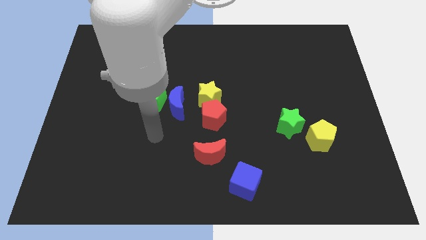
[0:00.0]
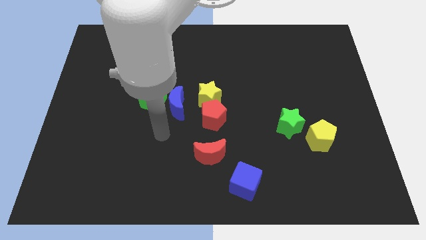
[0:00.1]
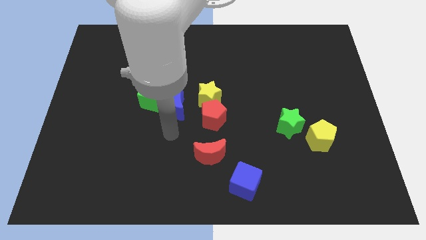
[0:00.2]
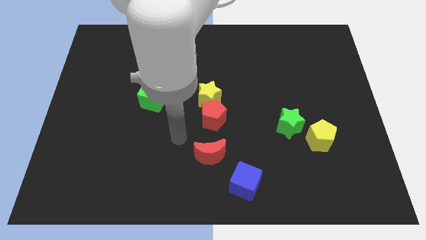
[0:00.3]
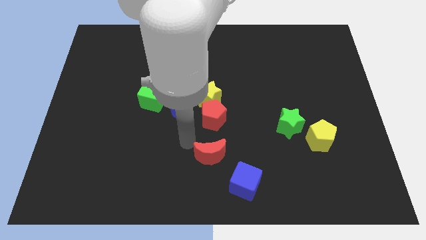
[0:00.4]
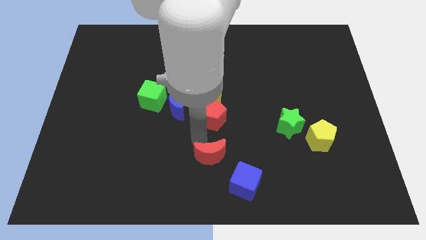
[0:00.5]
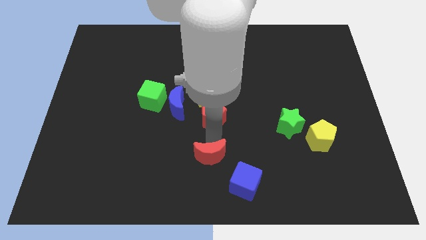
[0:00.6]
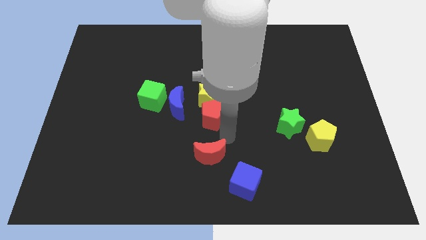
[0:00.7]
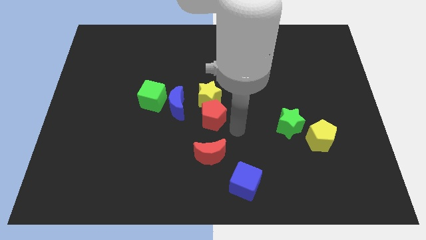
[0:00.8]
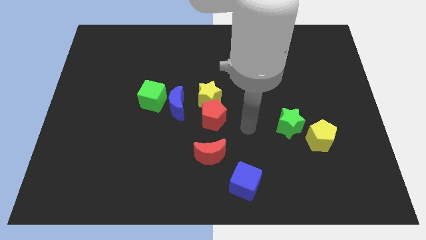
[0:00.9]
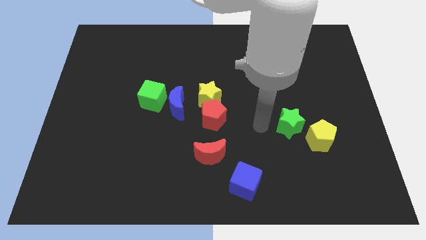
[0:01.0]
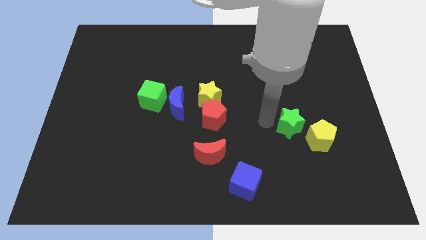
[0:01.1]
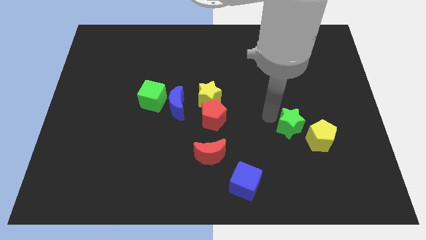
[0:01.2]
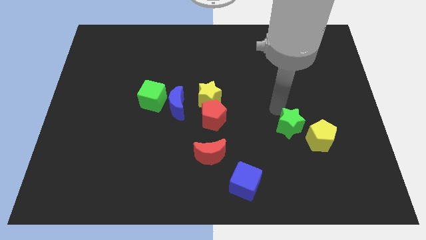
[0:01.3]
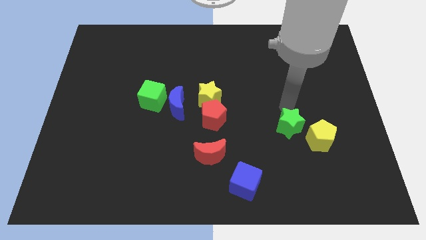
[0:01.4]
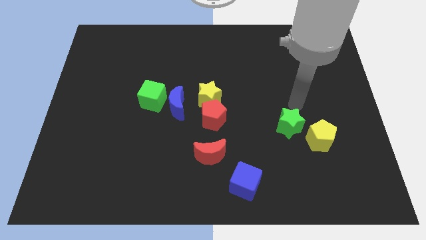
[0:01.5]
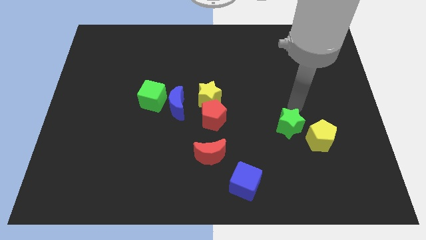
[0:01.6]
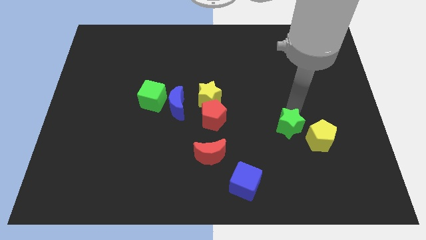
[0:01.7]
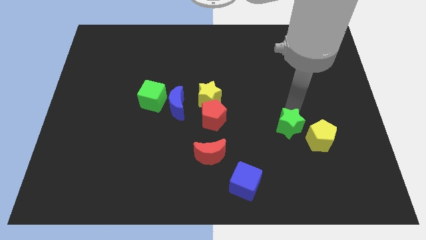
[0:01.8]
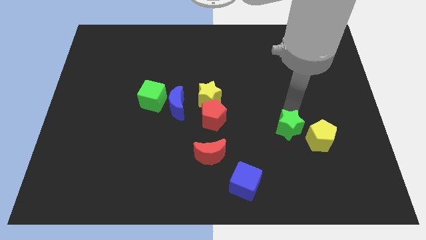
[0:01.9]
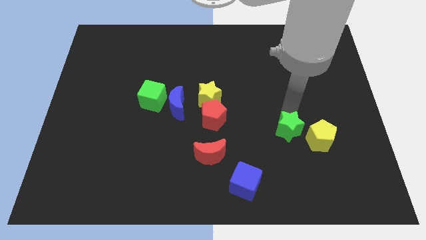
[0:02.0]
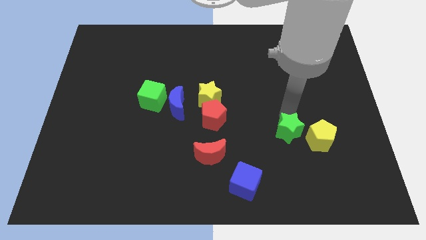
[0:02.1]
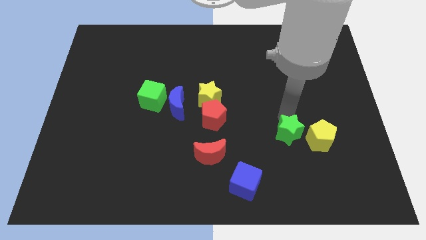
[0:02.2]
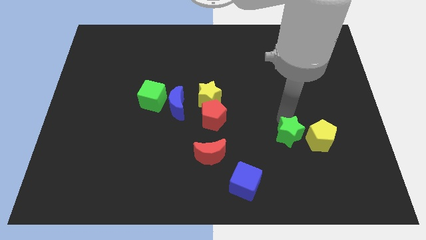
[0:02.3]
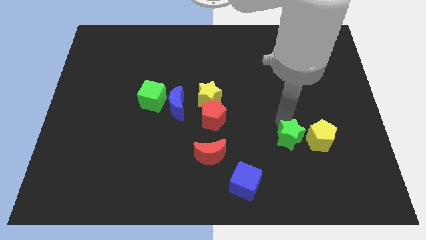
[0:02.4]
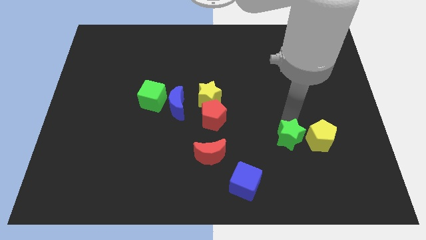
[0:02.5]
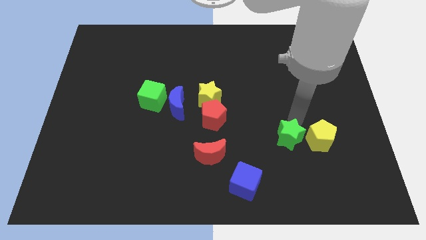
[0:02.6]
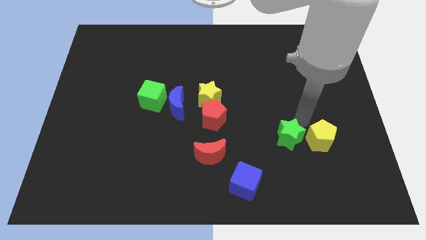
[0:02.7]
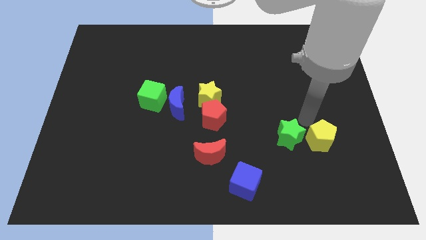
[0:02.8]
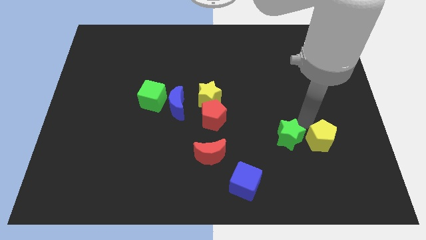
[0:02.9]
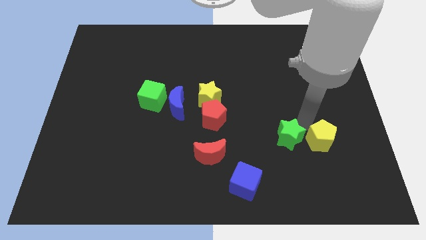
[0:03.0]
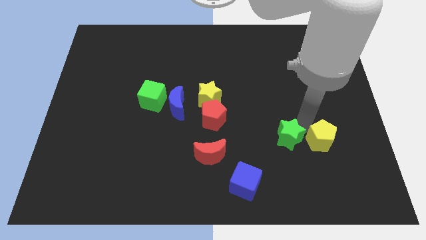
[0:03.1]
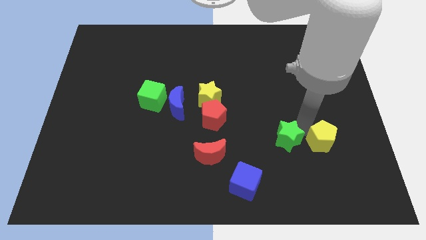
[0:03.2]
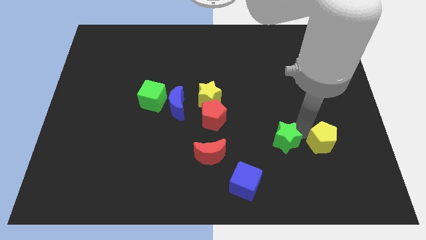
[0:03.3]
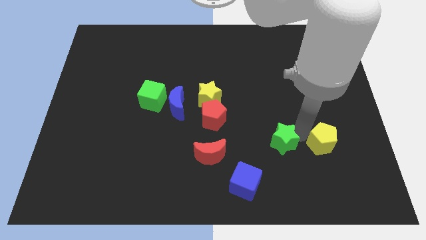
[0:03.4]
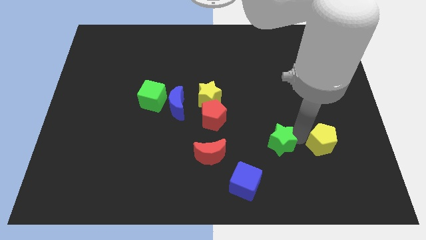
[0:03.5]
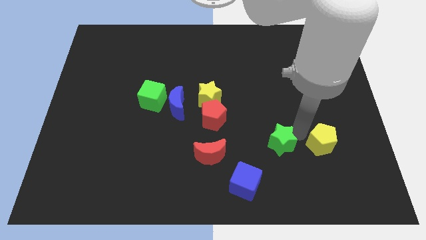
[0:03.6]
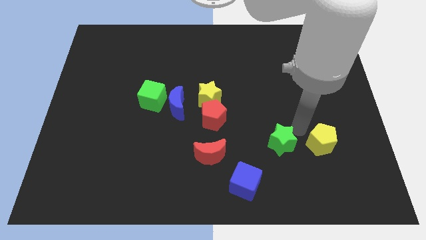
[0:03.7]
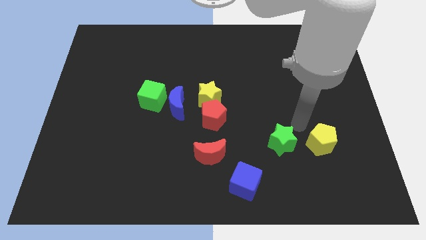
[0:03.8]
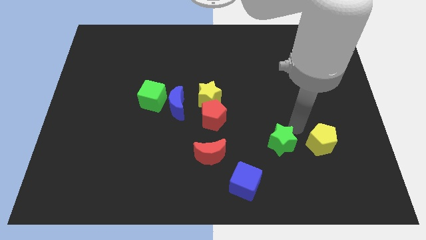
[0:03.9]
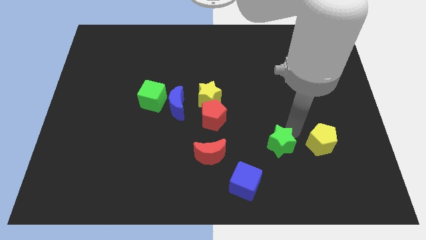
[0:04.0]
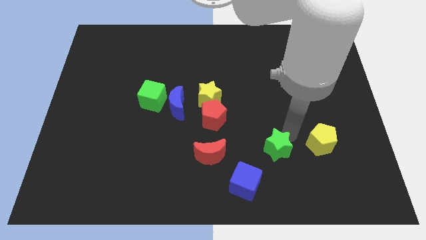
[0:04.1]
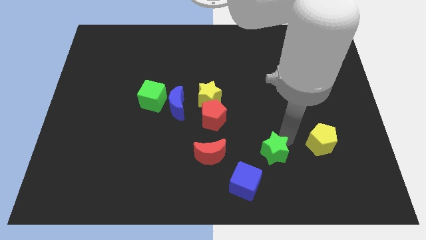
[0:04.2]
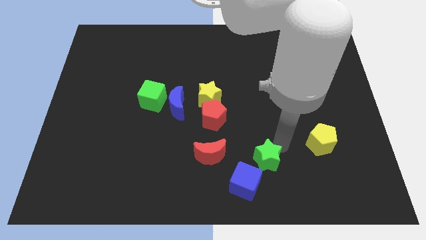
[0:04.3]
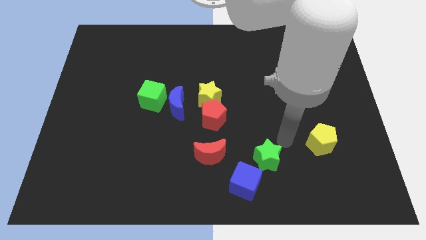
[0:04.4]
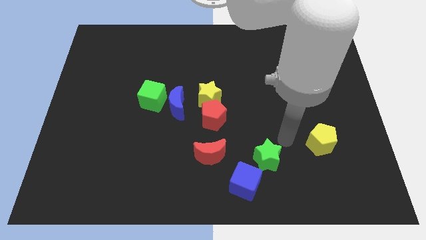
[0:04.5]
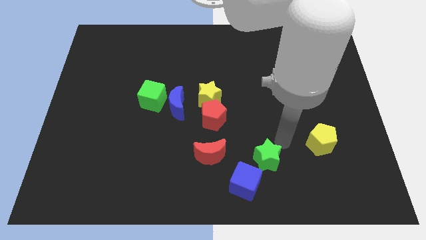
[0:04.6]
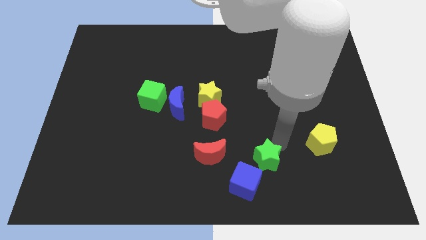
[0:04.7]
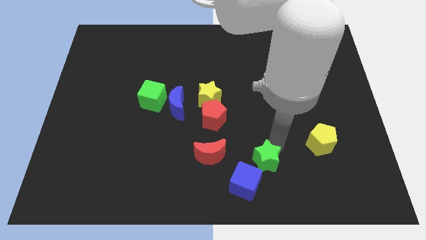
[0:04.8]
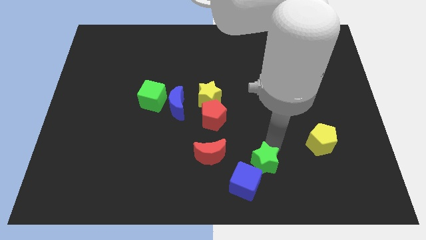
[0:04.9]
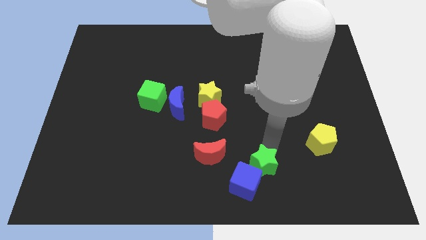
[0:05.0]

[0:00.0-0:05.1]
move the green star towards the blue cube

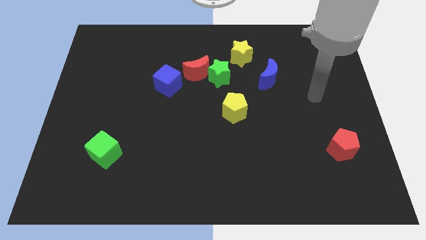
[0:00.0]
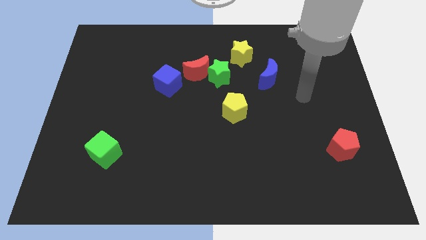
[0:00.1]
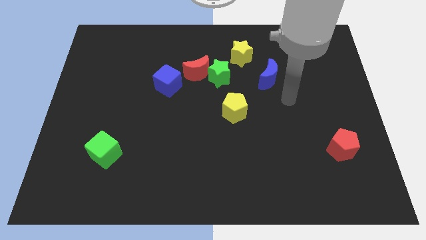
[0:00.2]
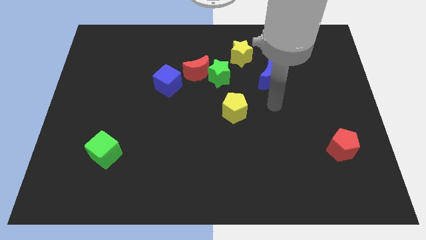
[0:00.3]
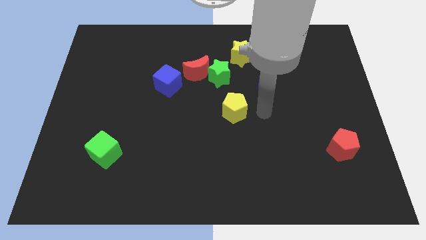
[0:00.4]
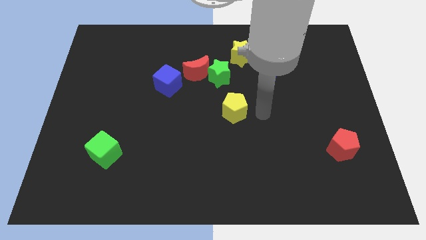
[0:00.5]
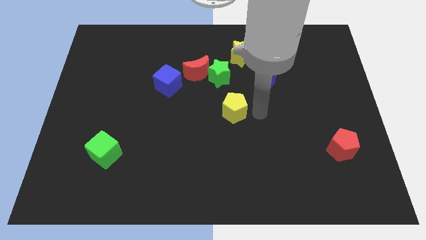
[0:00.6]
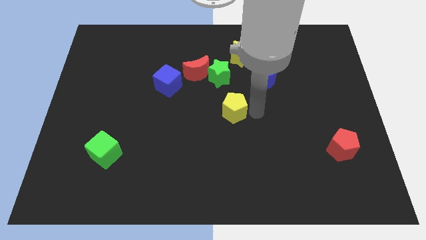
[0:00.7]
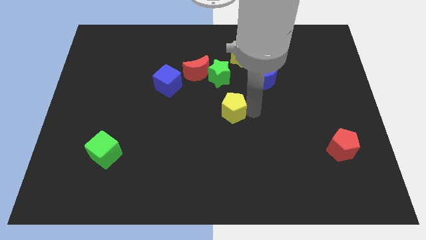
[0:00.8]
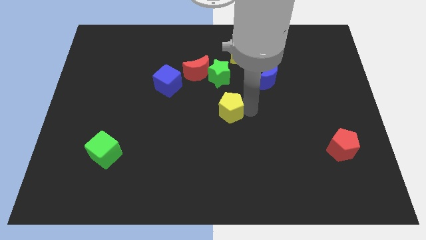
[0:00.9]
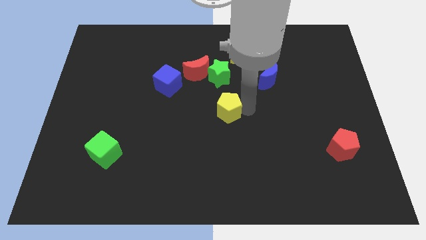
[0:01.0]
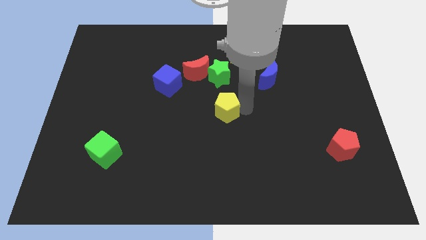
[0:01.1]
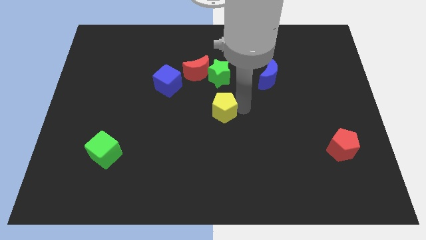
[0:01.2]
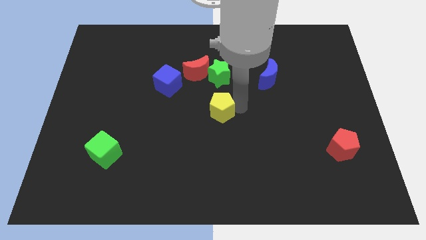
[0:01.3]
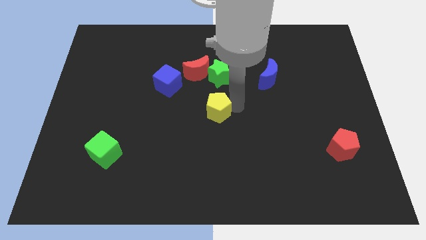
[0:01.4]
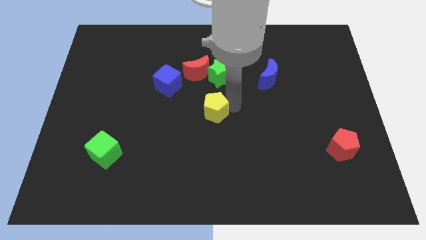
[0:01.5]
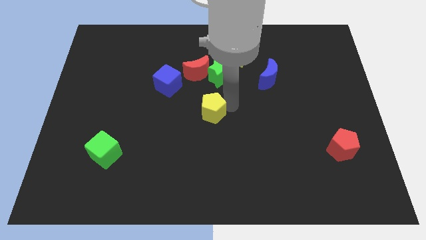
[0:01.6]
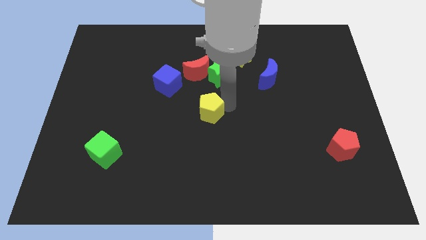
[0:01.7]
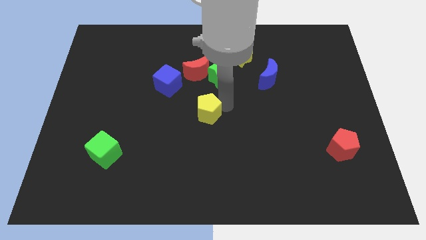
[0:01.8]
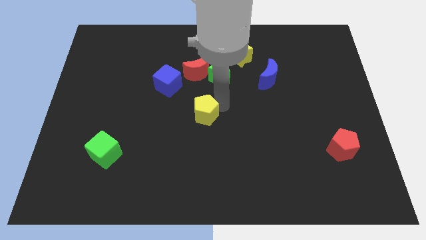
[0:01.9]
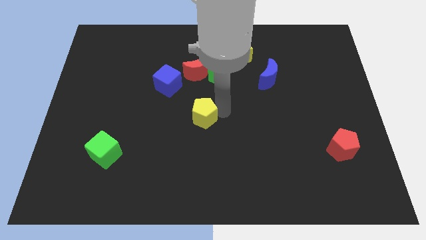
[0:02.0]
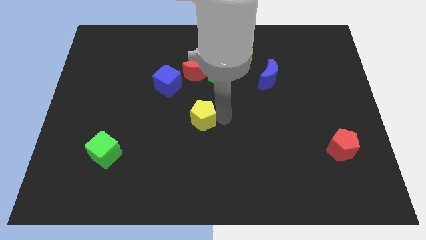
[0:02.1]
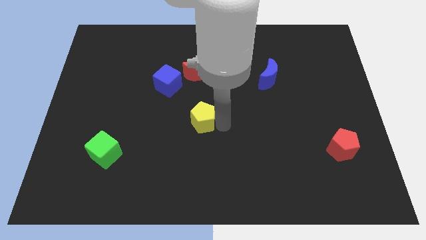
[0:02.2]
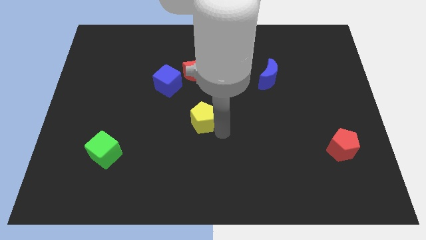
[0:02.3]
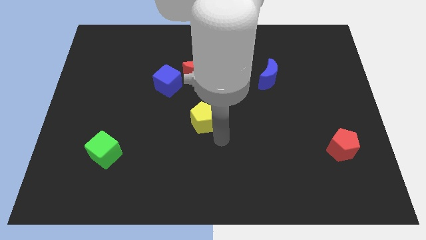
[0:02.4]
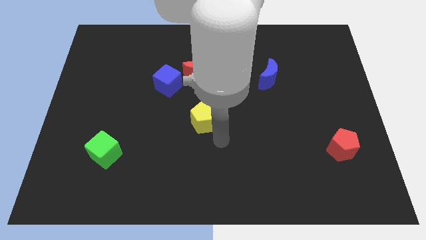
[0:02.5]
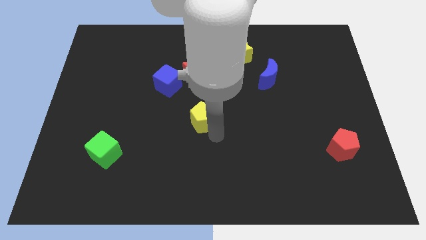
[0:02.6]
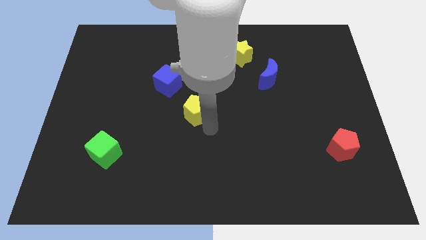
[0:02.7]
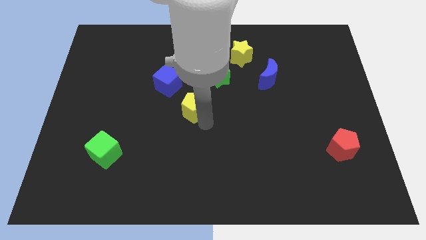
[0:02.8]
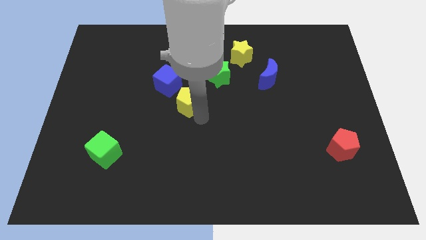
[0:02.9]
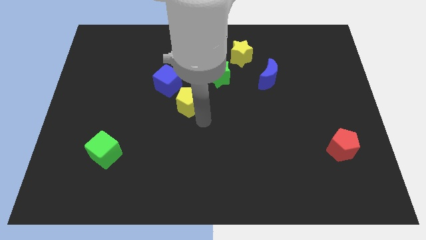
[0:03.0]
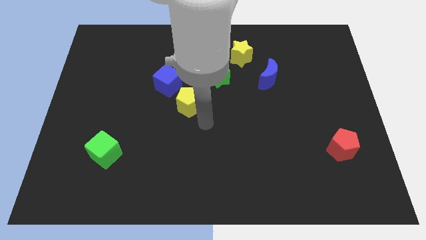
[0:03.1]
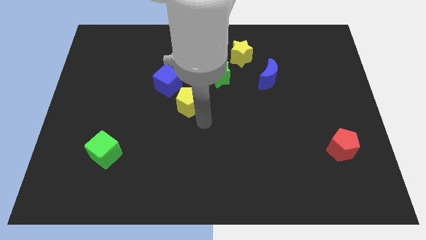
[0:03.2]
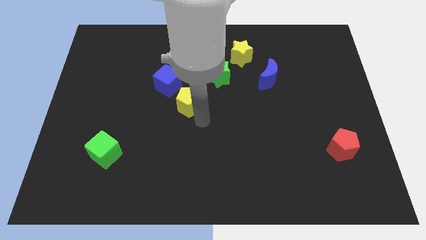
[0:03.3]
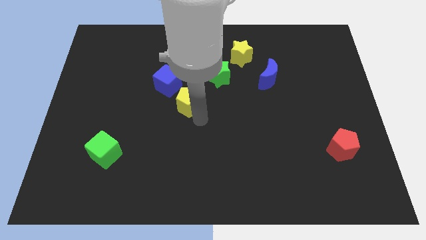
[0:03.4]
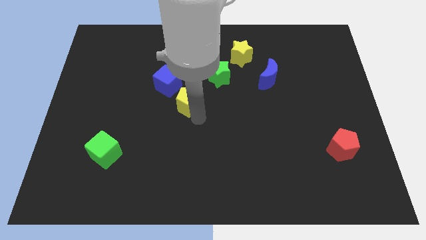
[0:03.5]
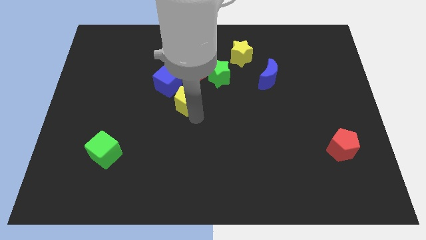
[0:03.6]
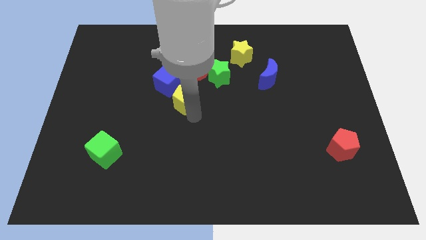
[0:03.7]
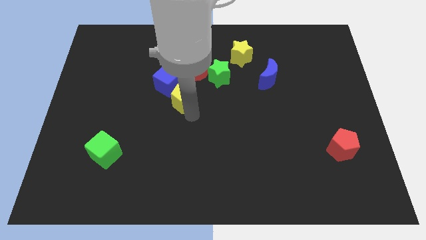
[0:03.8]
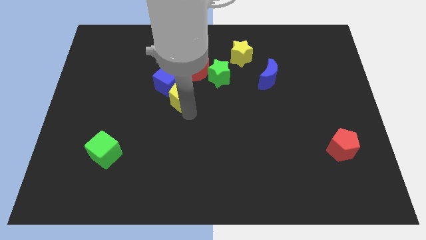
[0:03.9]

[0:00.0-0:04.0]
push the yellow pentagon close to the blue cube
